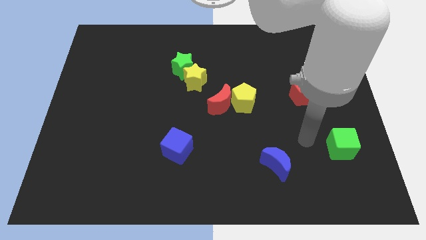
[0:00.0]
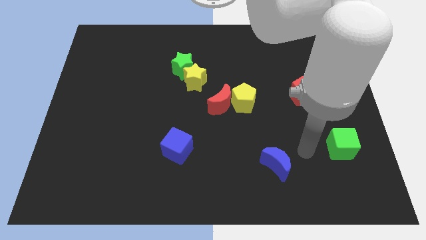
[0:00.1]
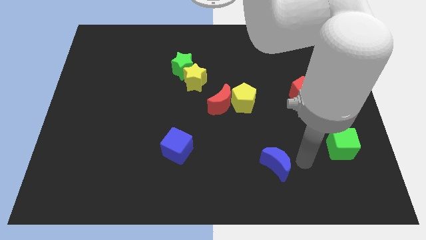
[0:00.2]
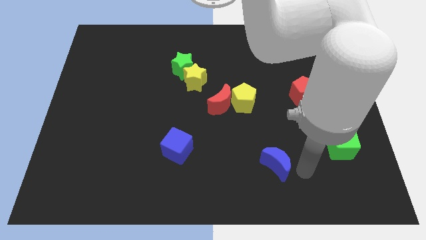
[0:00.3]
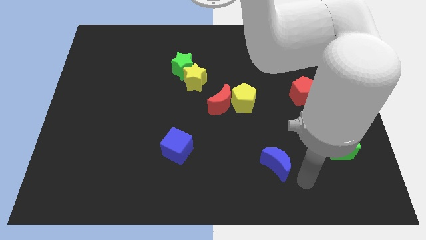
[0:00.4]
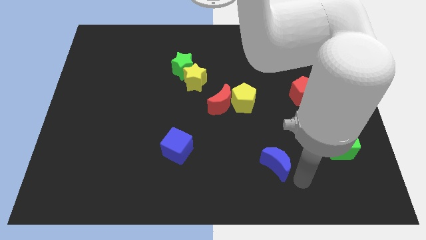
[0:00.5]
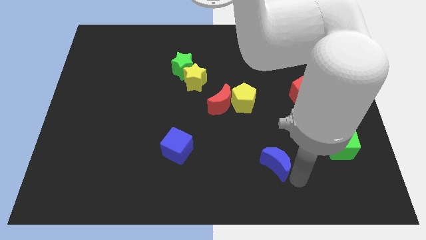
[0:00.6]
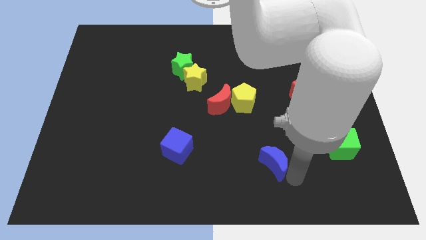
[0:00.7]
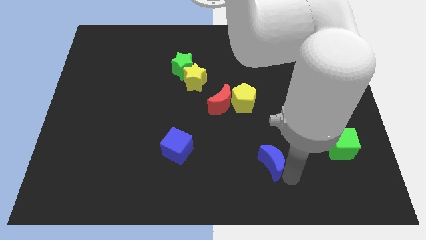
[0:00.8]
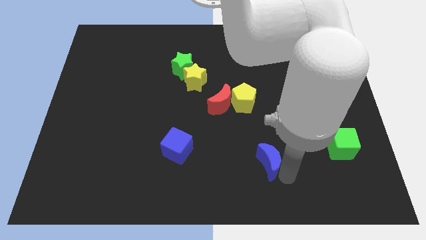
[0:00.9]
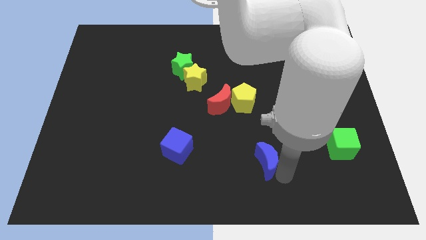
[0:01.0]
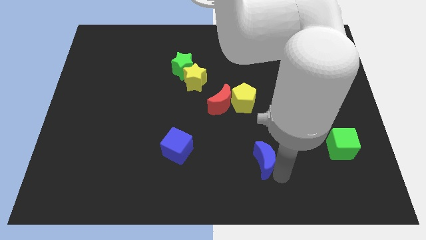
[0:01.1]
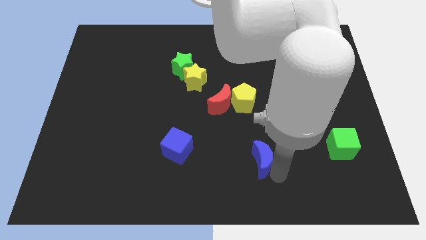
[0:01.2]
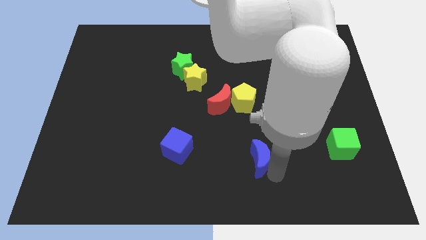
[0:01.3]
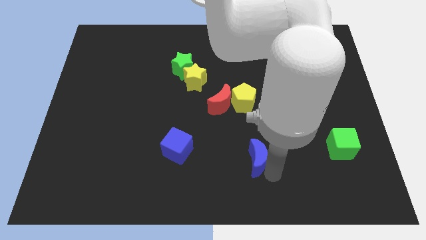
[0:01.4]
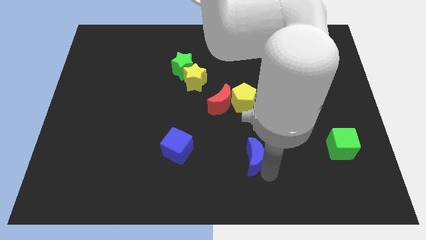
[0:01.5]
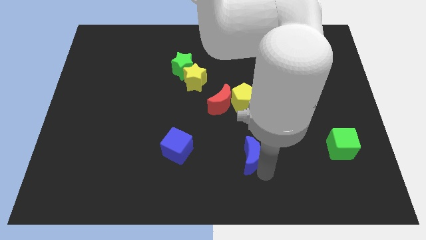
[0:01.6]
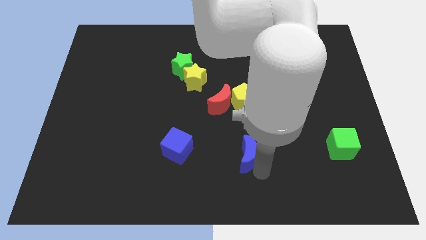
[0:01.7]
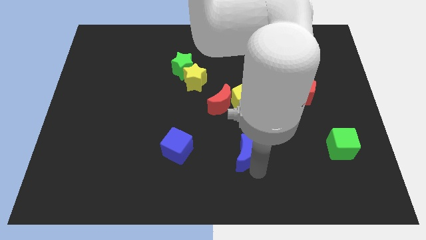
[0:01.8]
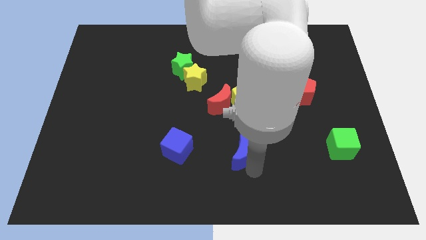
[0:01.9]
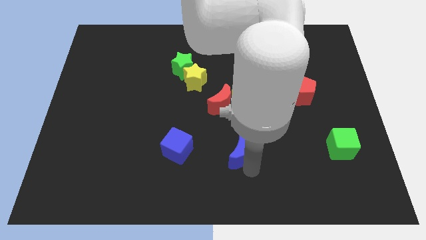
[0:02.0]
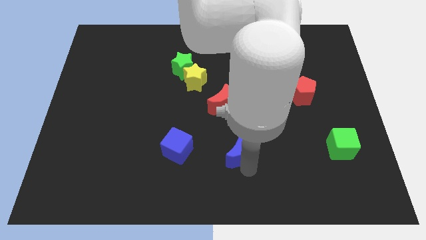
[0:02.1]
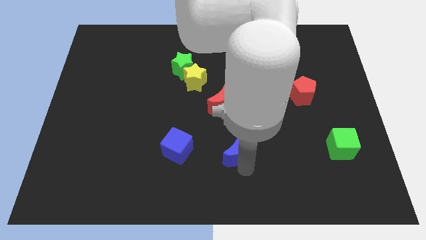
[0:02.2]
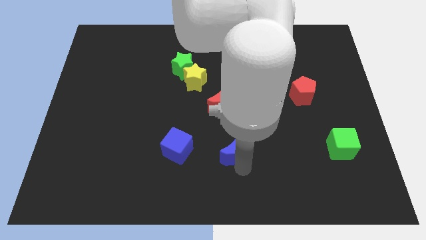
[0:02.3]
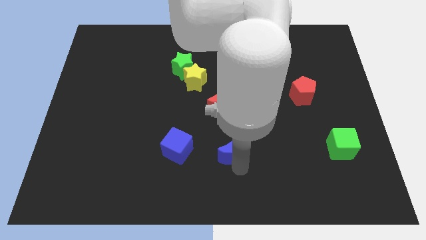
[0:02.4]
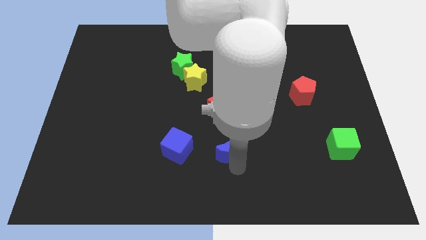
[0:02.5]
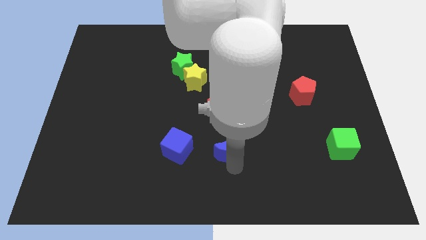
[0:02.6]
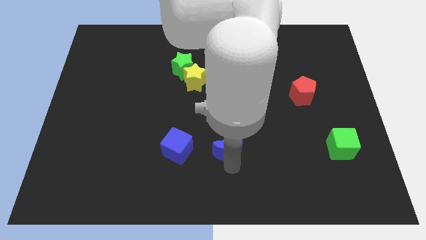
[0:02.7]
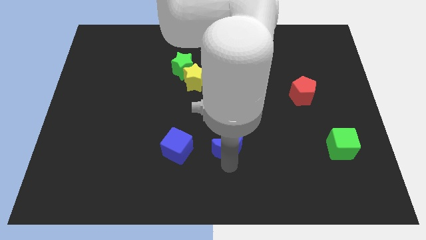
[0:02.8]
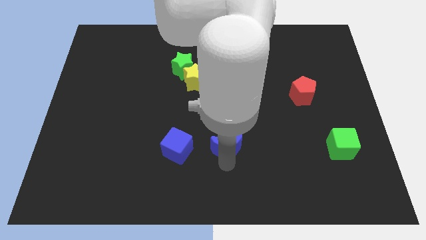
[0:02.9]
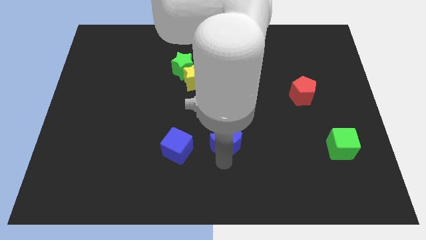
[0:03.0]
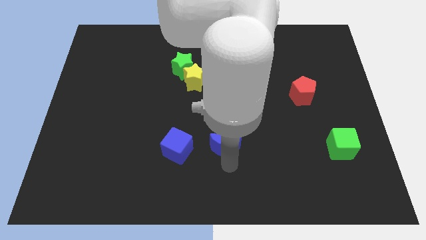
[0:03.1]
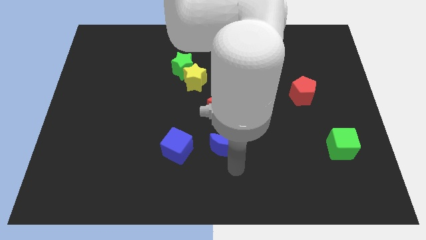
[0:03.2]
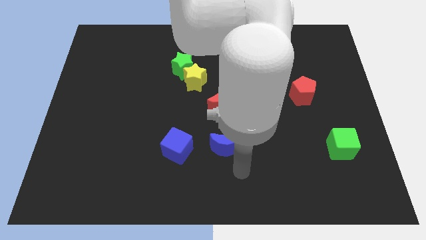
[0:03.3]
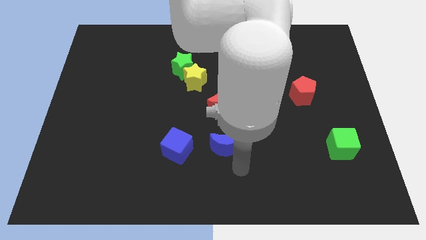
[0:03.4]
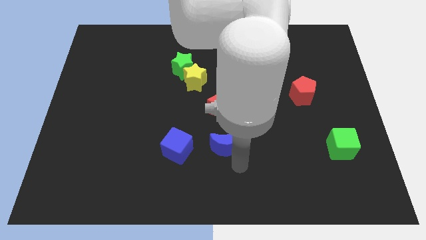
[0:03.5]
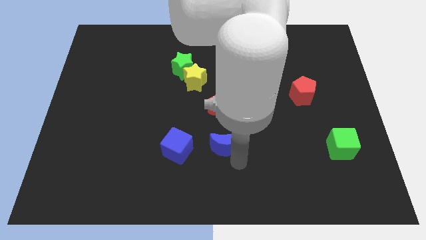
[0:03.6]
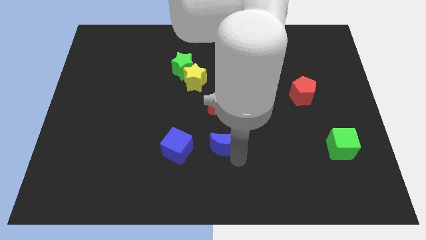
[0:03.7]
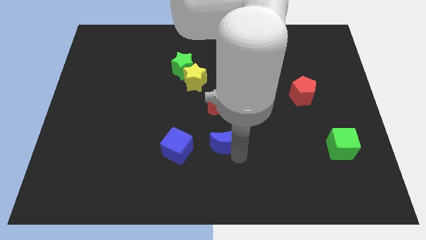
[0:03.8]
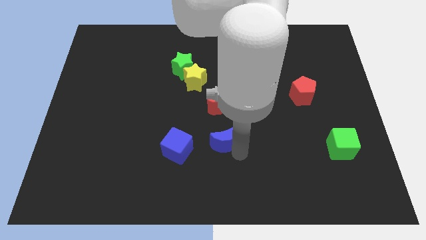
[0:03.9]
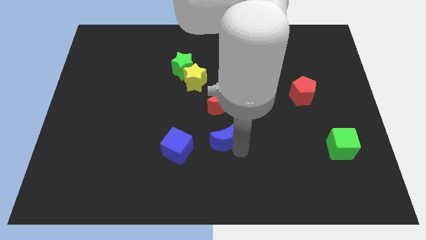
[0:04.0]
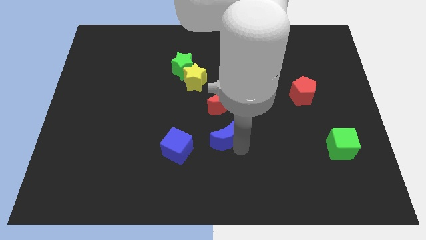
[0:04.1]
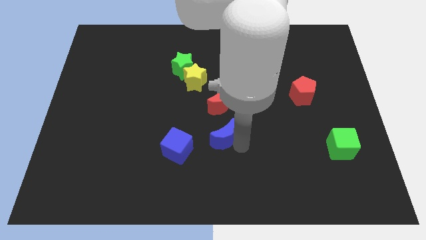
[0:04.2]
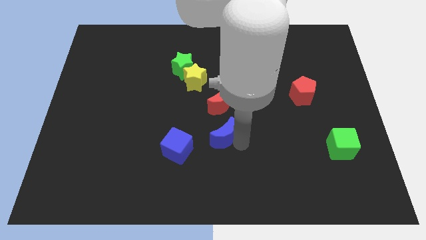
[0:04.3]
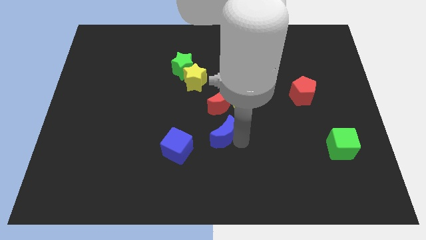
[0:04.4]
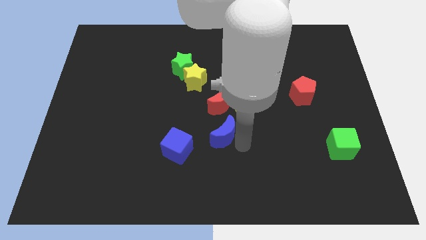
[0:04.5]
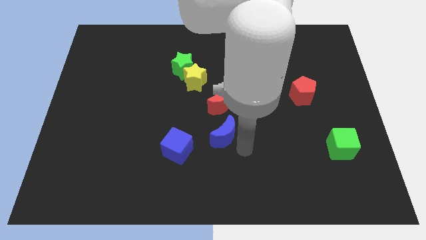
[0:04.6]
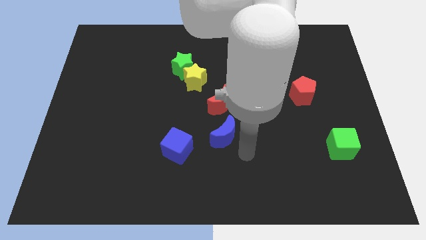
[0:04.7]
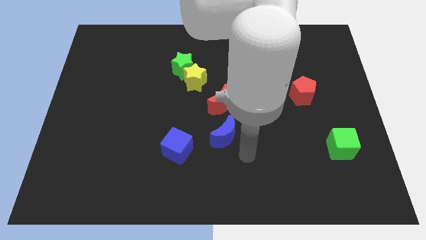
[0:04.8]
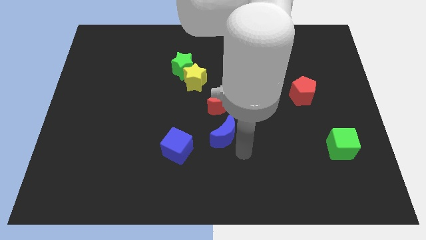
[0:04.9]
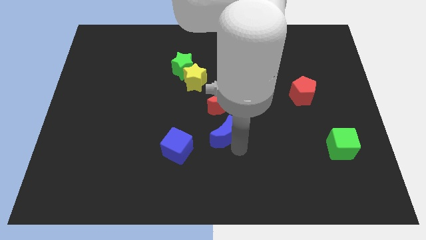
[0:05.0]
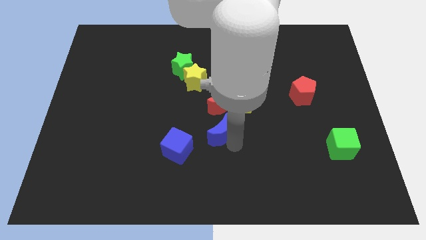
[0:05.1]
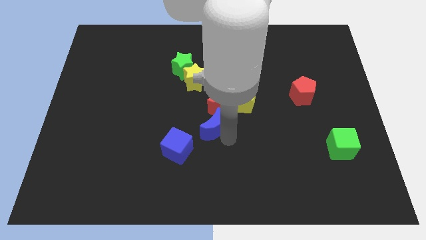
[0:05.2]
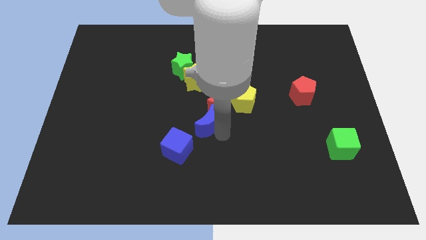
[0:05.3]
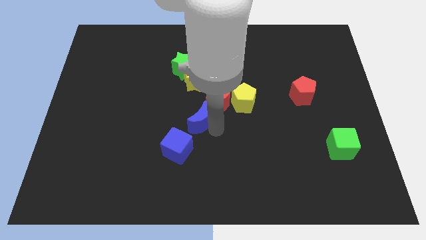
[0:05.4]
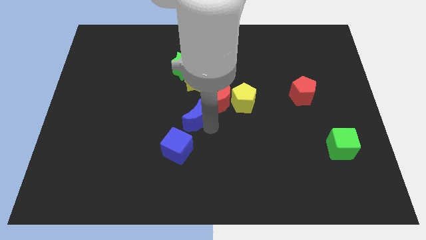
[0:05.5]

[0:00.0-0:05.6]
slide the blue moon just left of the red moon

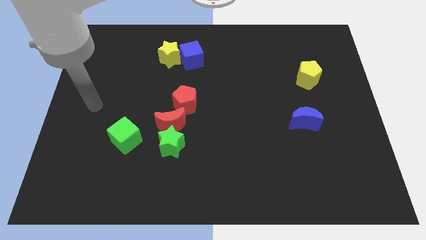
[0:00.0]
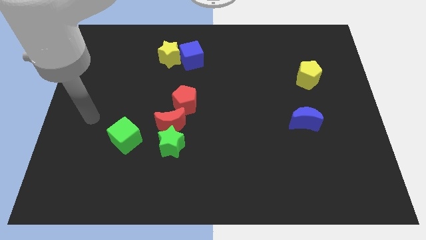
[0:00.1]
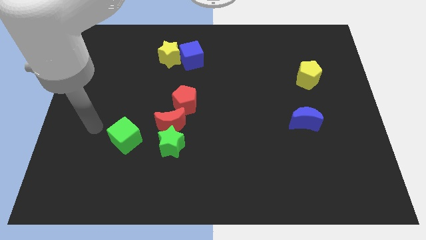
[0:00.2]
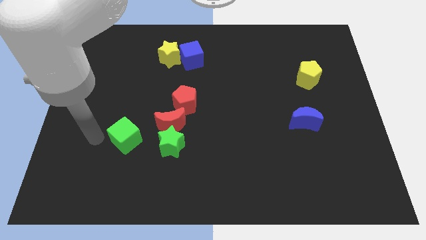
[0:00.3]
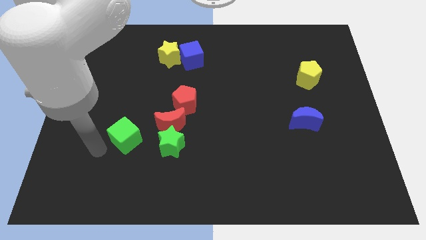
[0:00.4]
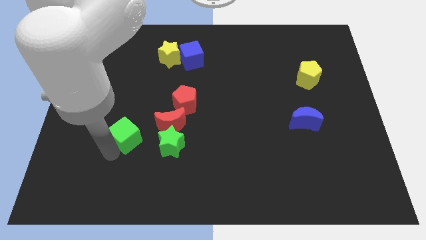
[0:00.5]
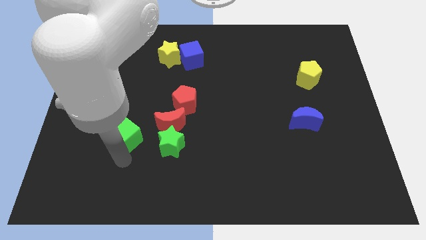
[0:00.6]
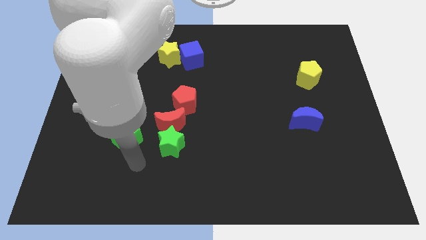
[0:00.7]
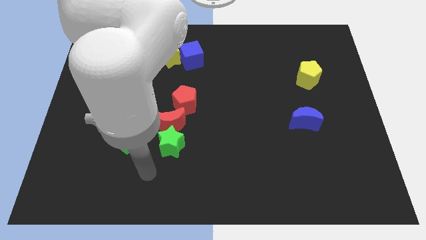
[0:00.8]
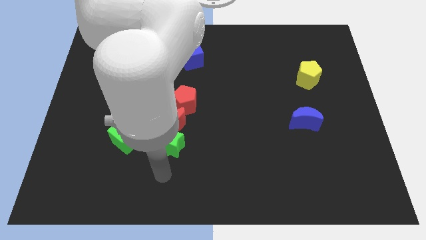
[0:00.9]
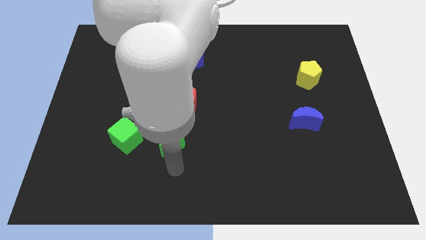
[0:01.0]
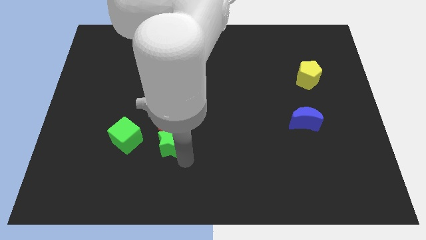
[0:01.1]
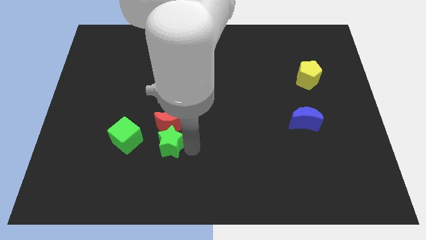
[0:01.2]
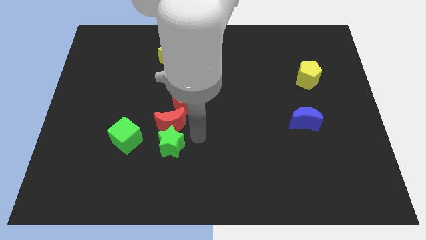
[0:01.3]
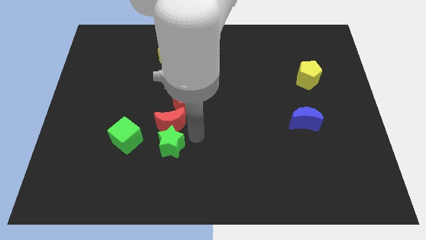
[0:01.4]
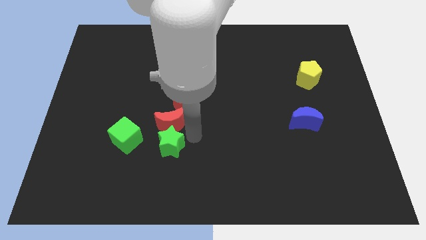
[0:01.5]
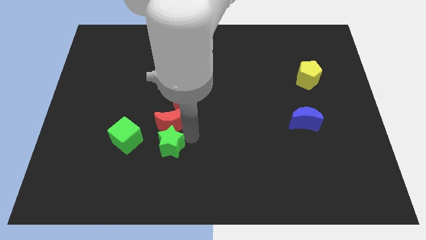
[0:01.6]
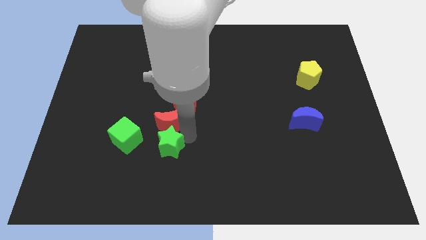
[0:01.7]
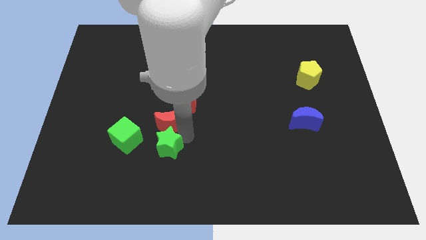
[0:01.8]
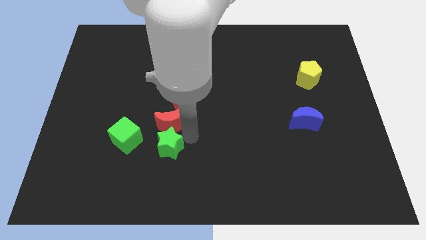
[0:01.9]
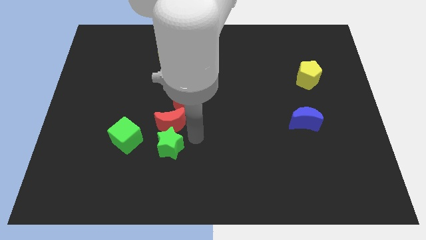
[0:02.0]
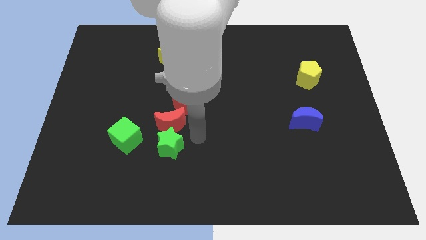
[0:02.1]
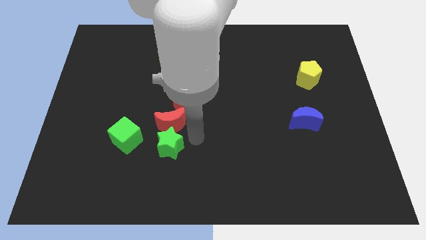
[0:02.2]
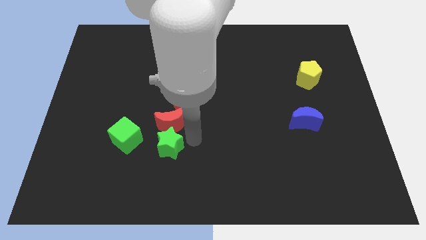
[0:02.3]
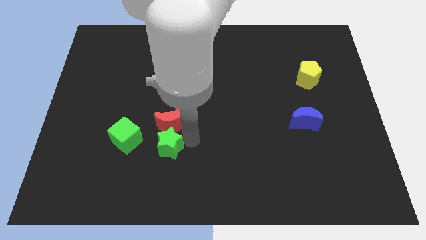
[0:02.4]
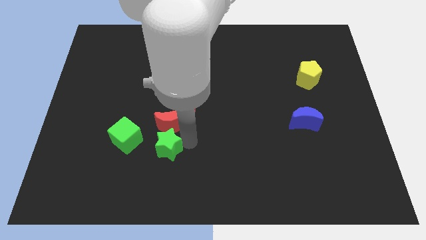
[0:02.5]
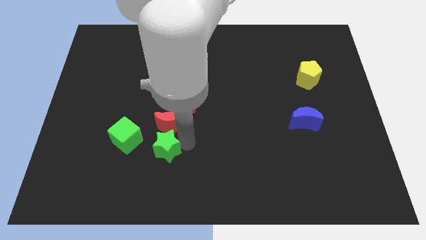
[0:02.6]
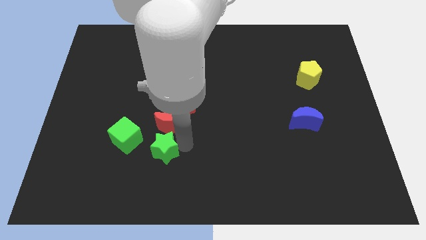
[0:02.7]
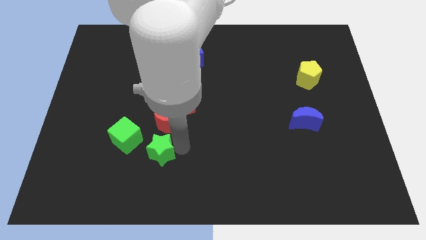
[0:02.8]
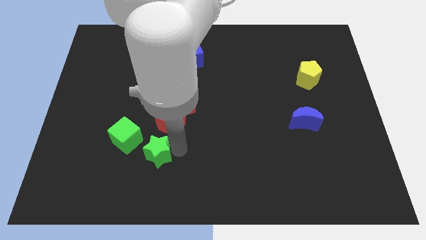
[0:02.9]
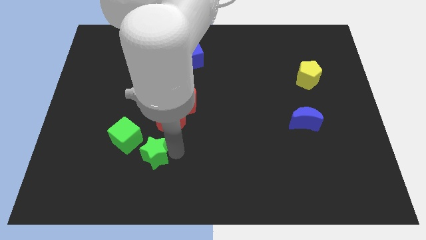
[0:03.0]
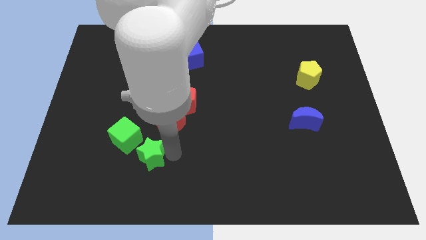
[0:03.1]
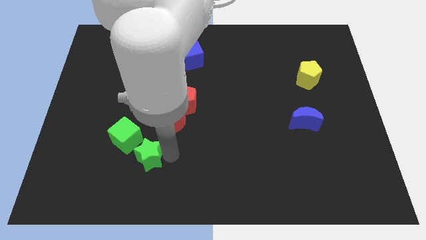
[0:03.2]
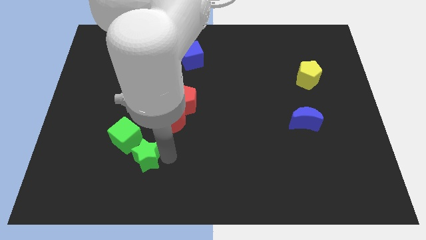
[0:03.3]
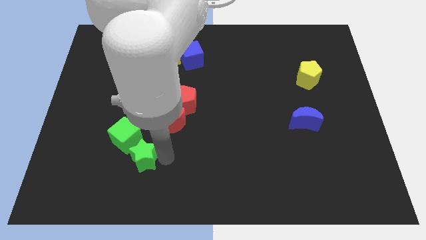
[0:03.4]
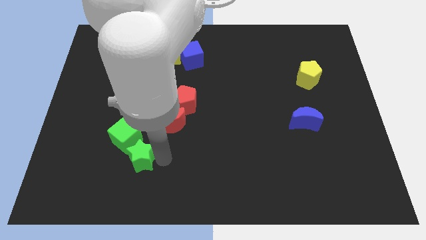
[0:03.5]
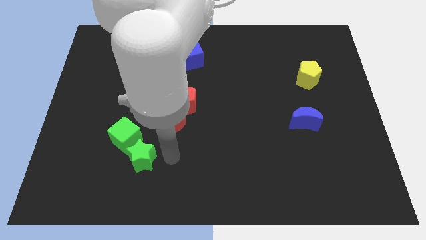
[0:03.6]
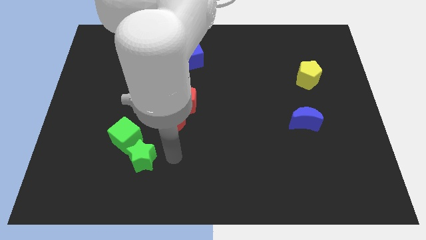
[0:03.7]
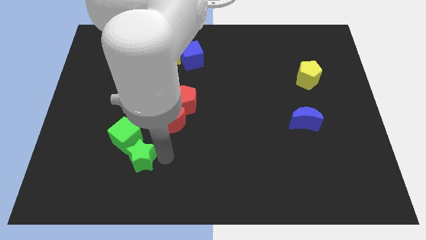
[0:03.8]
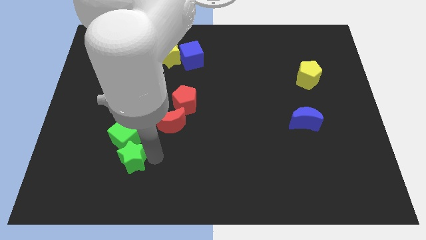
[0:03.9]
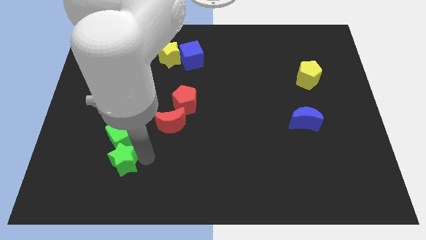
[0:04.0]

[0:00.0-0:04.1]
move the green star diagonally down and to the left of the green cube
